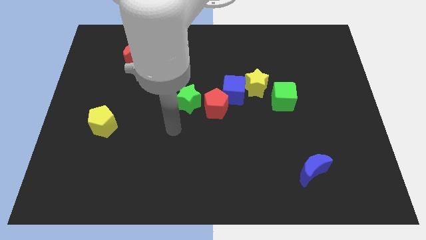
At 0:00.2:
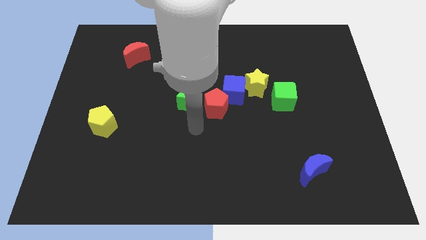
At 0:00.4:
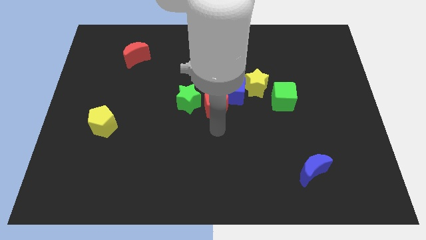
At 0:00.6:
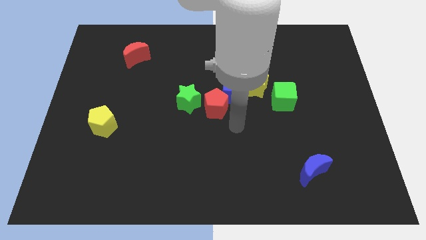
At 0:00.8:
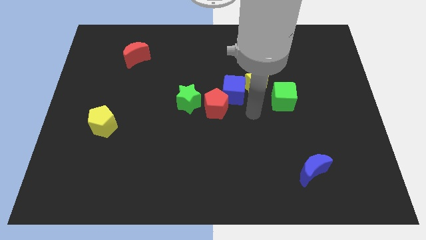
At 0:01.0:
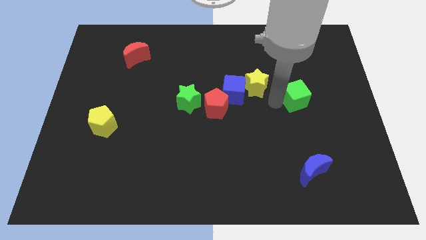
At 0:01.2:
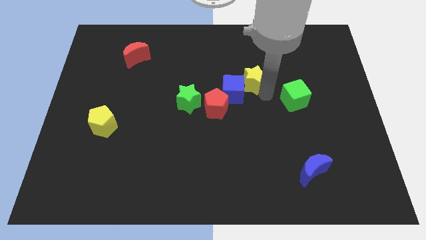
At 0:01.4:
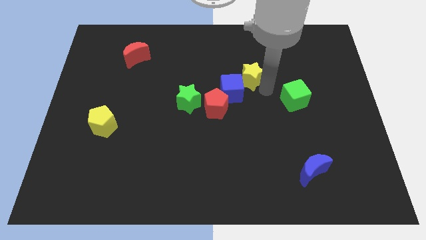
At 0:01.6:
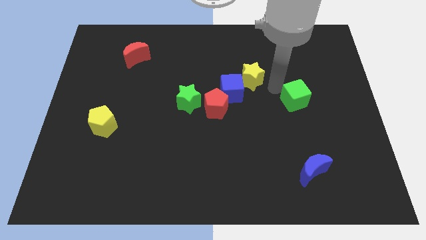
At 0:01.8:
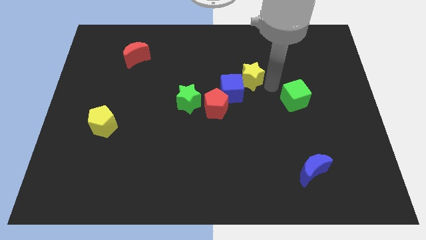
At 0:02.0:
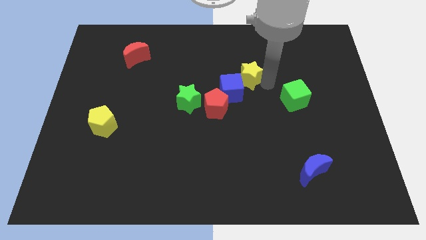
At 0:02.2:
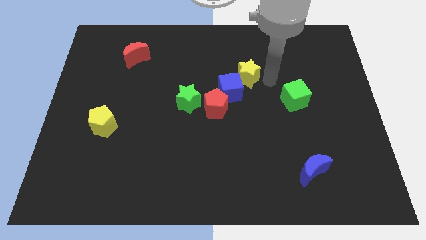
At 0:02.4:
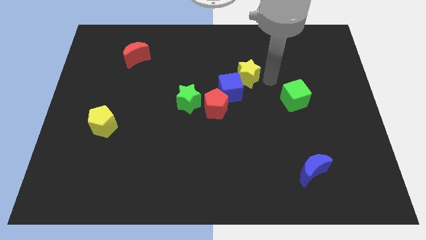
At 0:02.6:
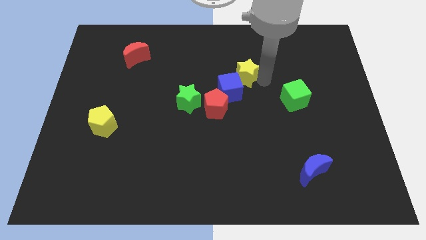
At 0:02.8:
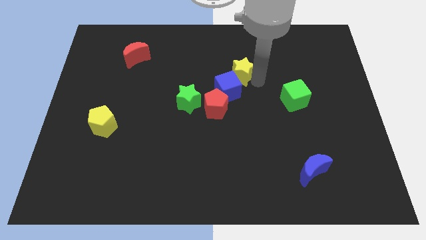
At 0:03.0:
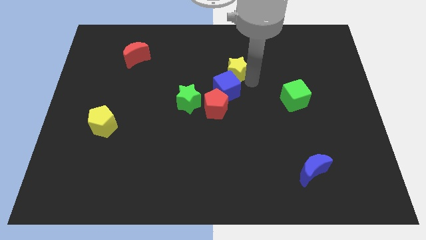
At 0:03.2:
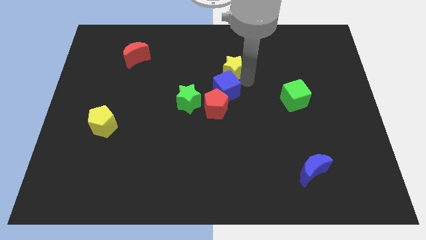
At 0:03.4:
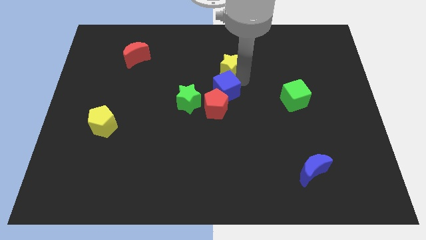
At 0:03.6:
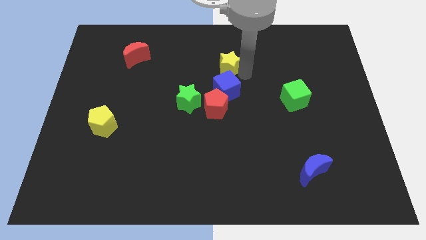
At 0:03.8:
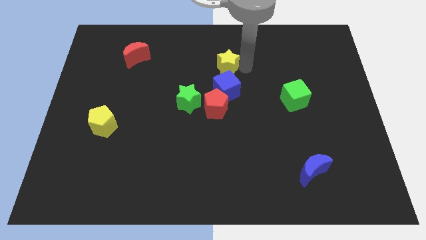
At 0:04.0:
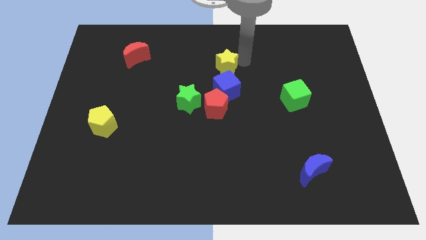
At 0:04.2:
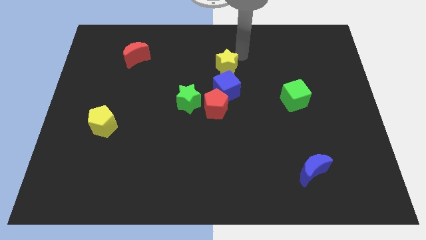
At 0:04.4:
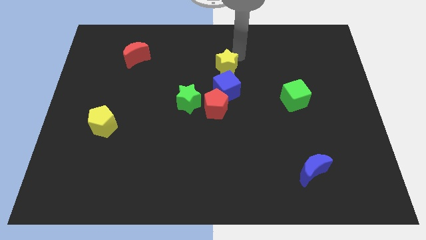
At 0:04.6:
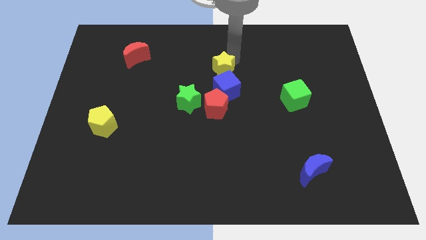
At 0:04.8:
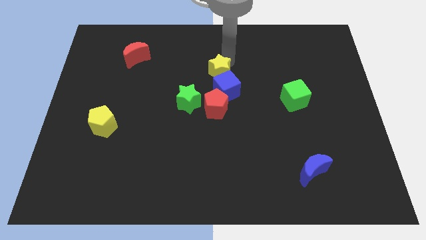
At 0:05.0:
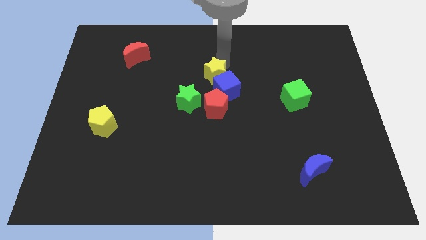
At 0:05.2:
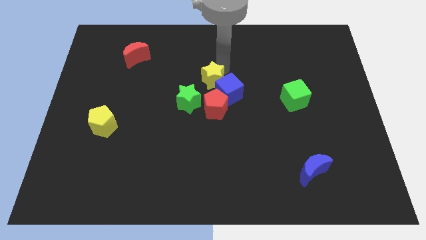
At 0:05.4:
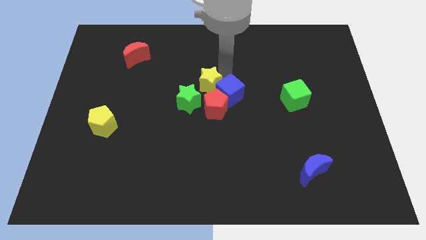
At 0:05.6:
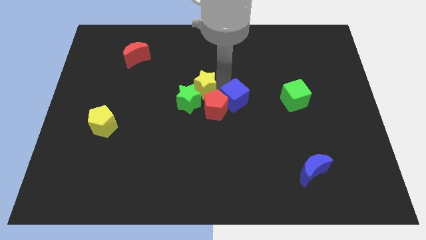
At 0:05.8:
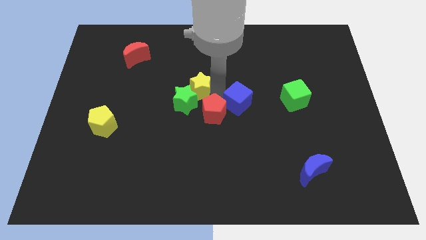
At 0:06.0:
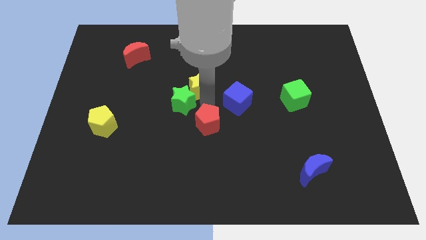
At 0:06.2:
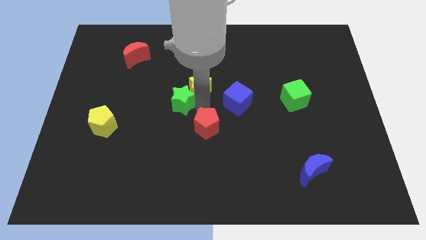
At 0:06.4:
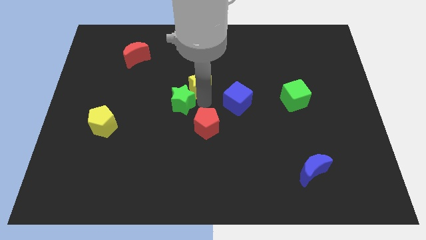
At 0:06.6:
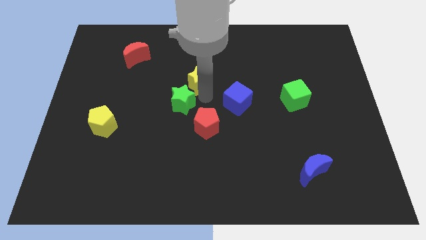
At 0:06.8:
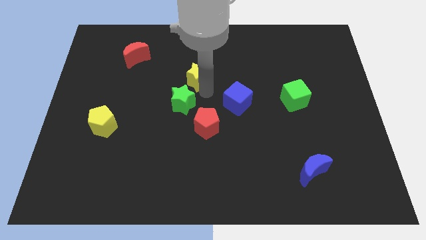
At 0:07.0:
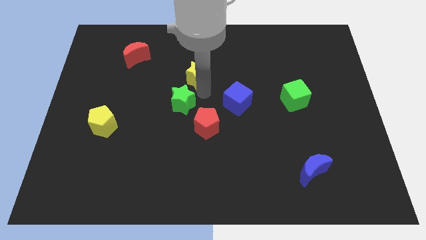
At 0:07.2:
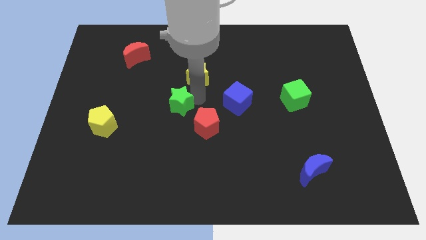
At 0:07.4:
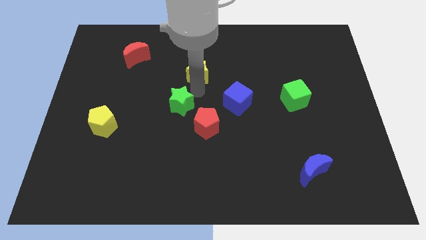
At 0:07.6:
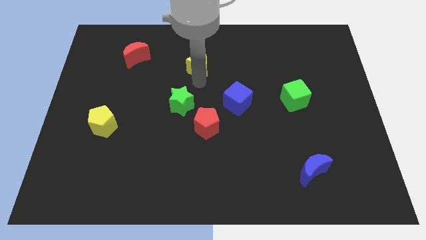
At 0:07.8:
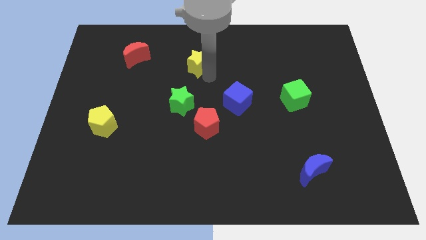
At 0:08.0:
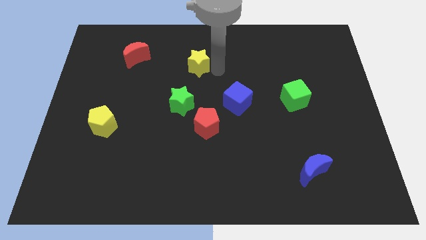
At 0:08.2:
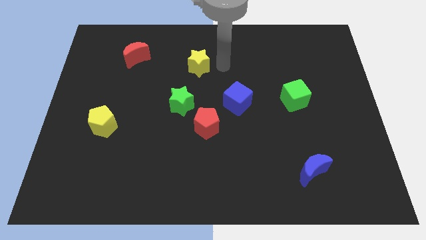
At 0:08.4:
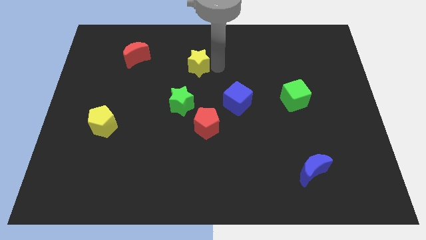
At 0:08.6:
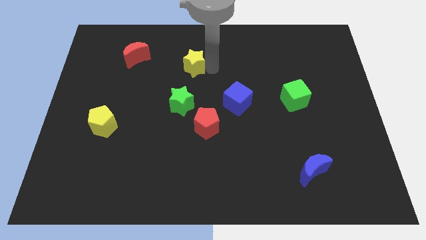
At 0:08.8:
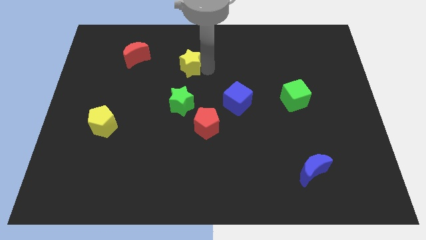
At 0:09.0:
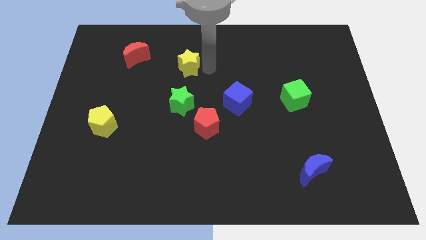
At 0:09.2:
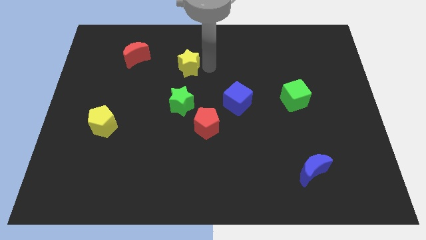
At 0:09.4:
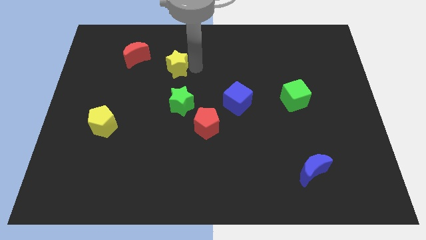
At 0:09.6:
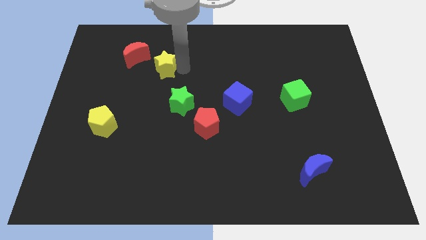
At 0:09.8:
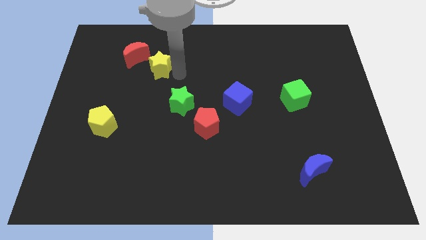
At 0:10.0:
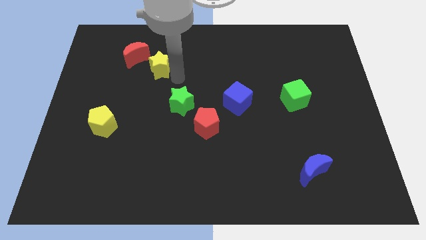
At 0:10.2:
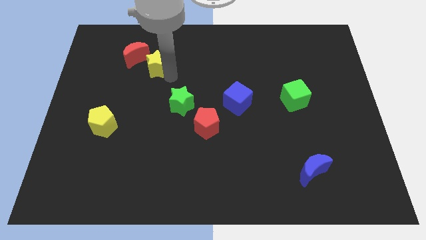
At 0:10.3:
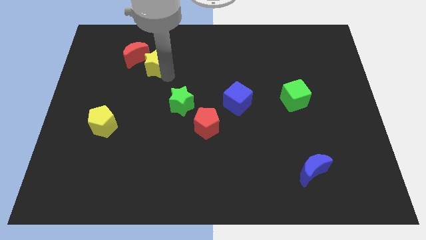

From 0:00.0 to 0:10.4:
slide the yellow star towards the red moon
